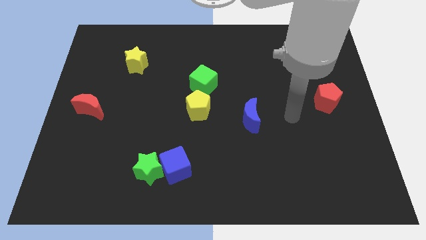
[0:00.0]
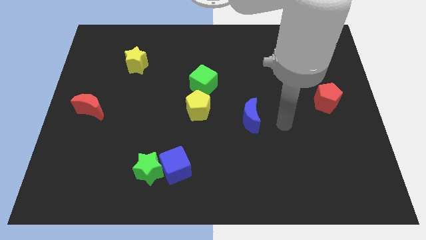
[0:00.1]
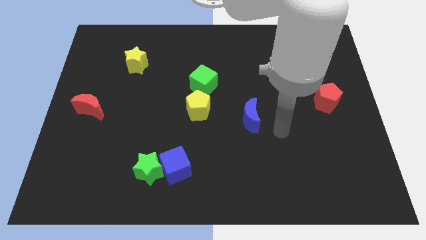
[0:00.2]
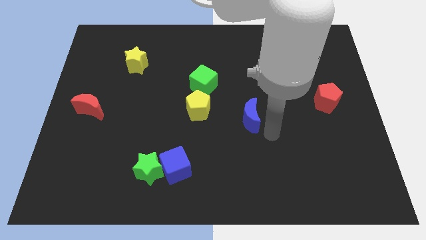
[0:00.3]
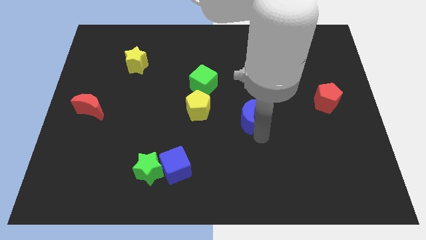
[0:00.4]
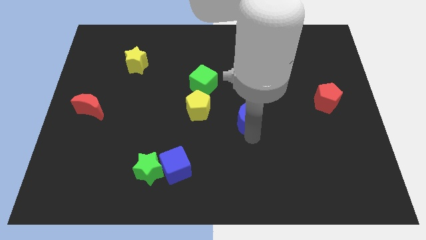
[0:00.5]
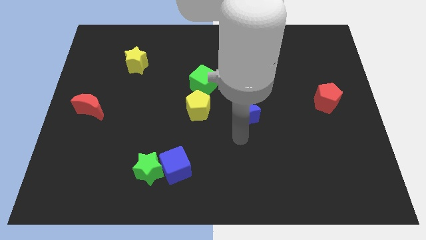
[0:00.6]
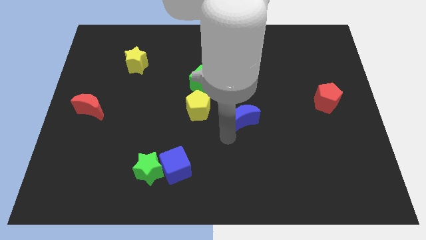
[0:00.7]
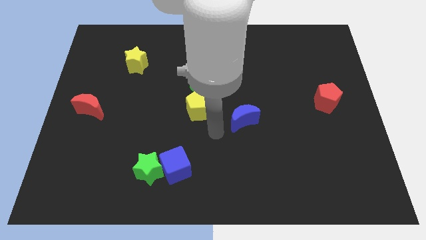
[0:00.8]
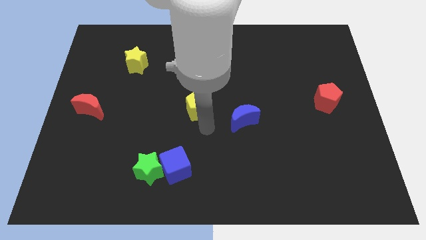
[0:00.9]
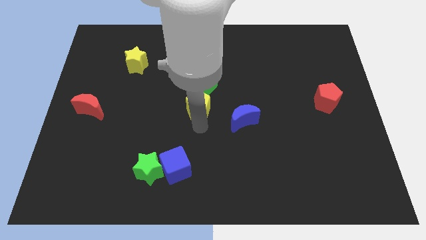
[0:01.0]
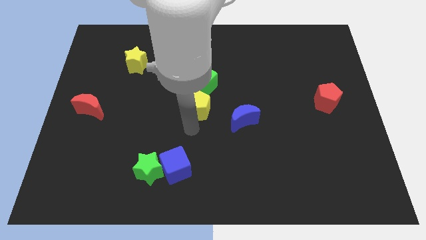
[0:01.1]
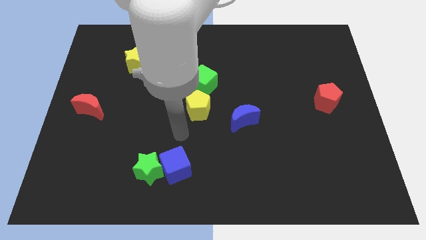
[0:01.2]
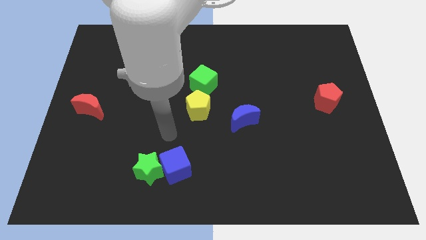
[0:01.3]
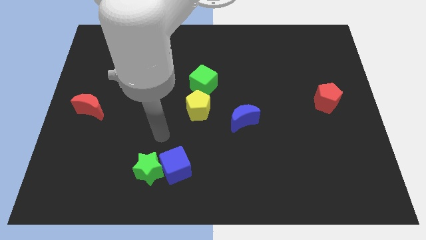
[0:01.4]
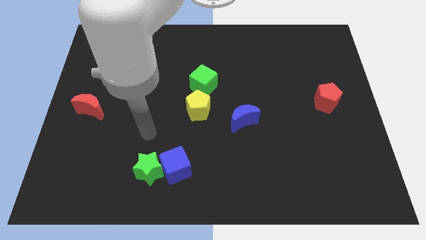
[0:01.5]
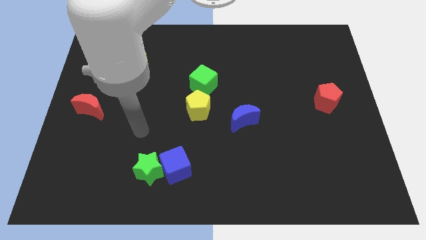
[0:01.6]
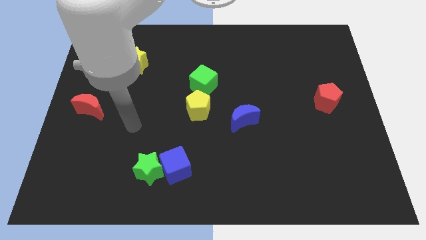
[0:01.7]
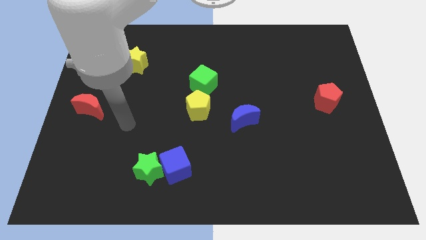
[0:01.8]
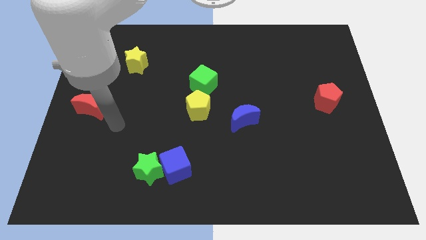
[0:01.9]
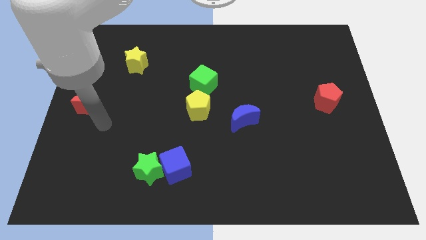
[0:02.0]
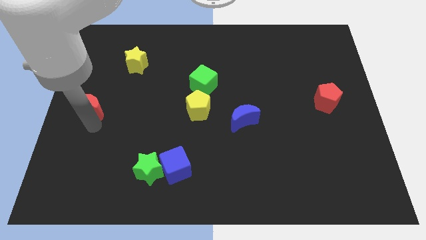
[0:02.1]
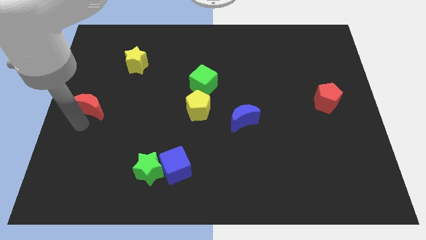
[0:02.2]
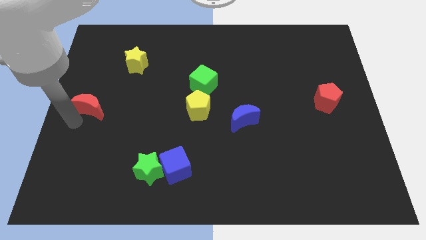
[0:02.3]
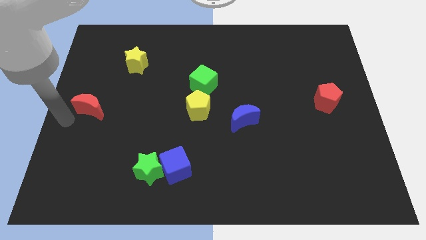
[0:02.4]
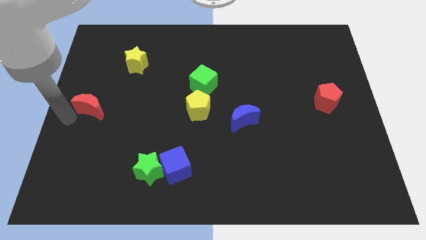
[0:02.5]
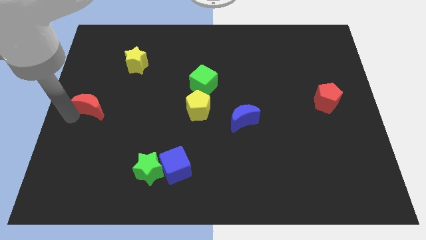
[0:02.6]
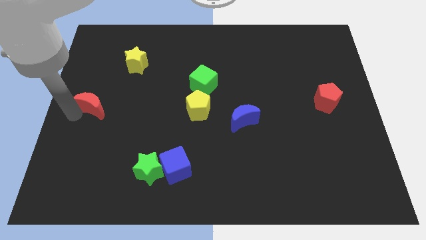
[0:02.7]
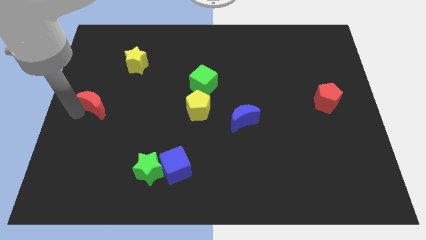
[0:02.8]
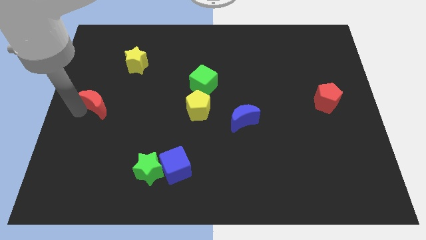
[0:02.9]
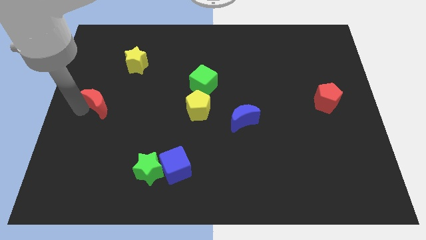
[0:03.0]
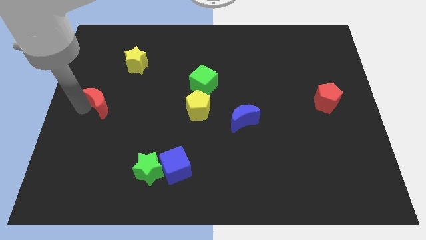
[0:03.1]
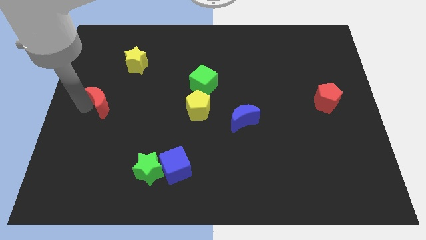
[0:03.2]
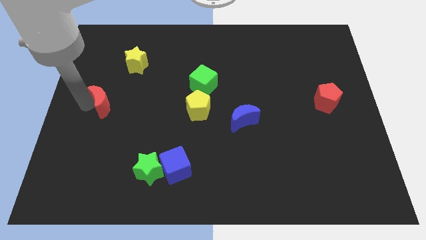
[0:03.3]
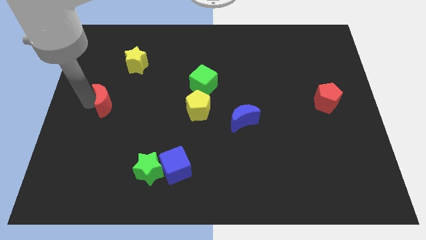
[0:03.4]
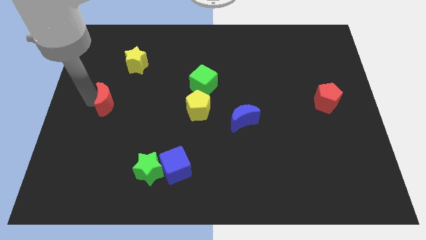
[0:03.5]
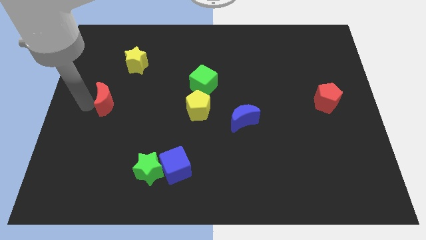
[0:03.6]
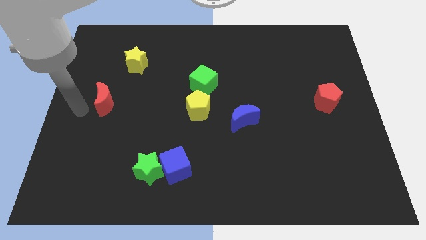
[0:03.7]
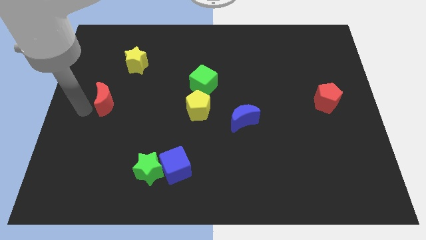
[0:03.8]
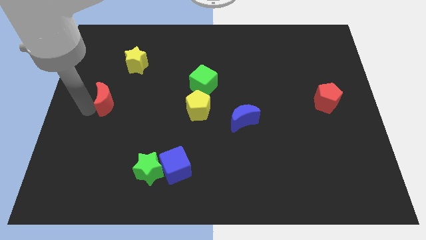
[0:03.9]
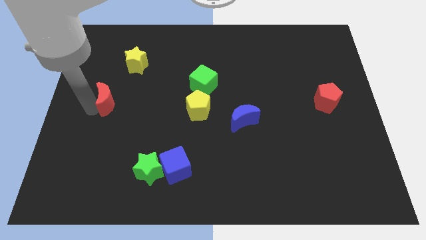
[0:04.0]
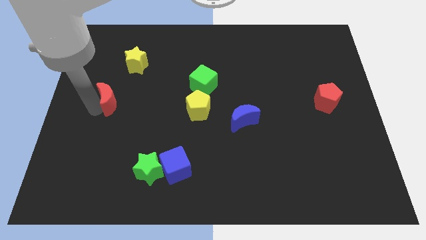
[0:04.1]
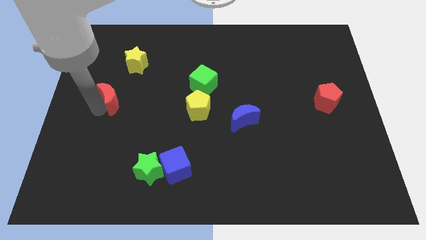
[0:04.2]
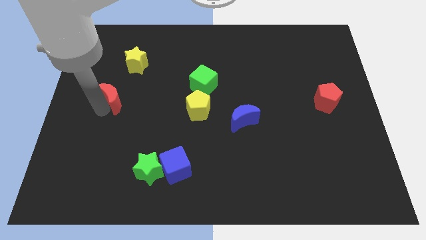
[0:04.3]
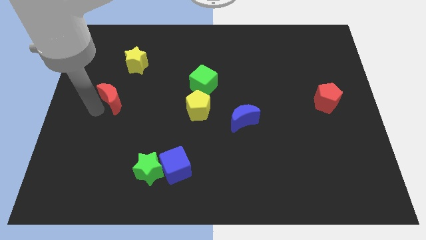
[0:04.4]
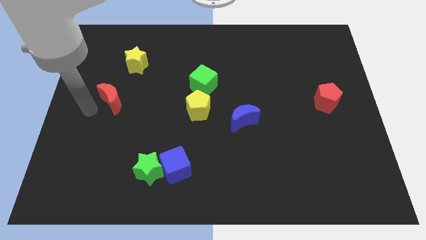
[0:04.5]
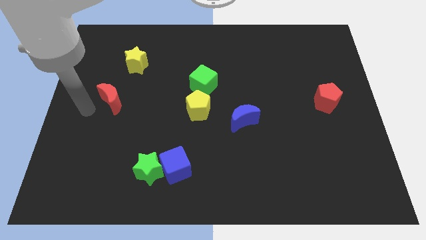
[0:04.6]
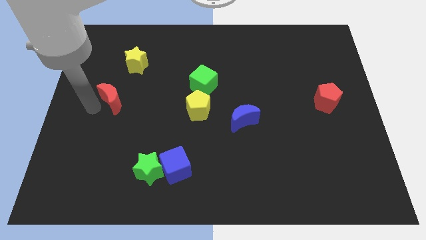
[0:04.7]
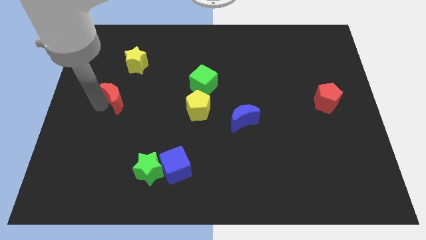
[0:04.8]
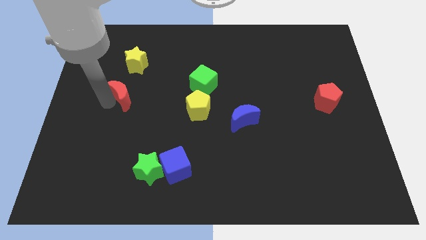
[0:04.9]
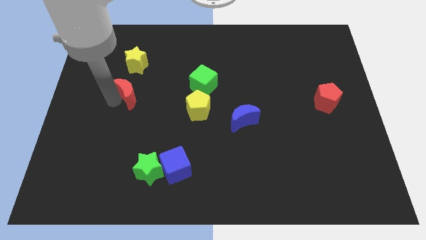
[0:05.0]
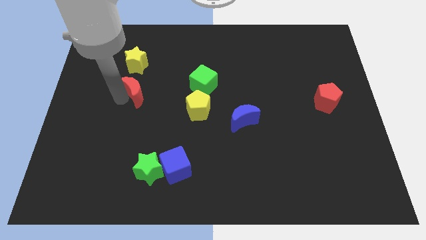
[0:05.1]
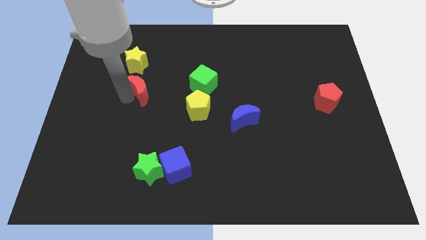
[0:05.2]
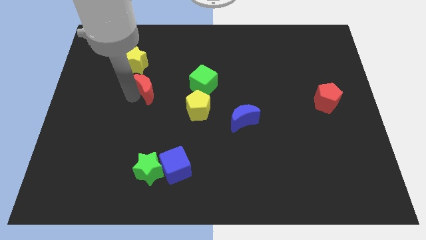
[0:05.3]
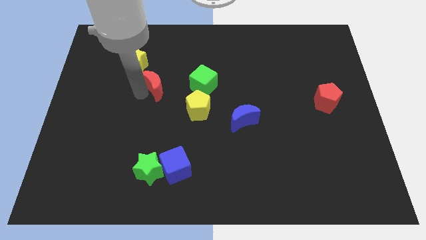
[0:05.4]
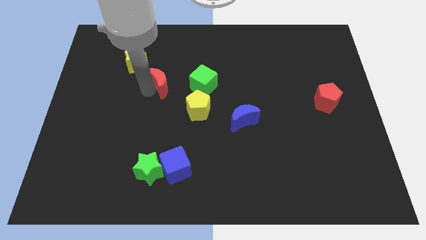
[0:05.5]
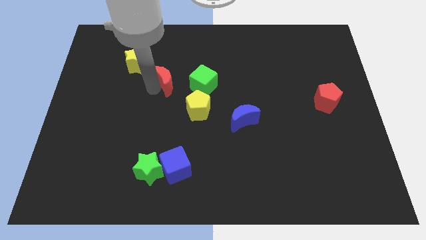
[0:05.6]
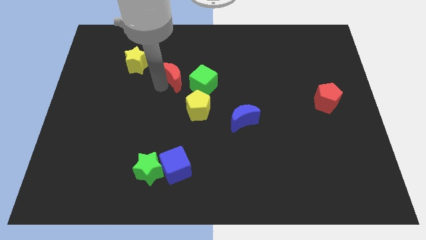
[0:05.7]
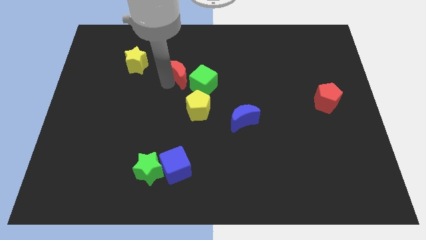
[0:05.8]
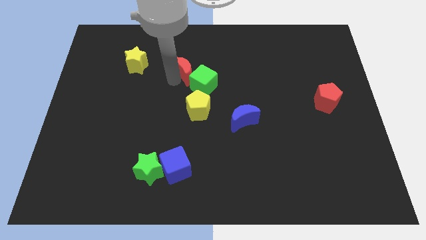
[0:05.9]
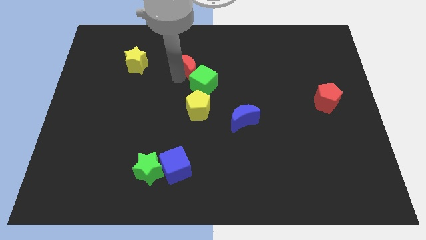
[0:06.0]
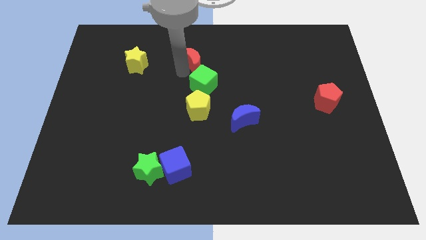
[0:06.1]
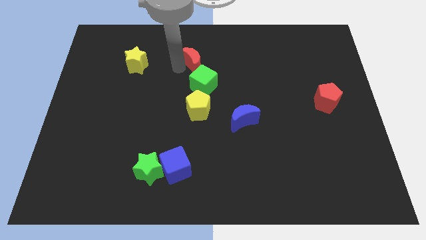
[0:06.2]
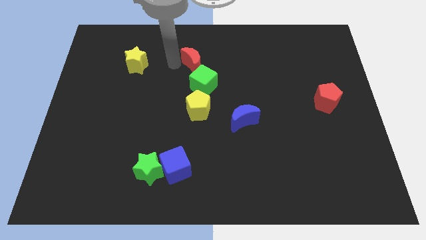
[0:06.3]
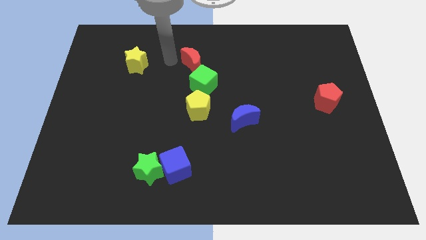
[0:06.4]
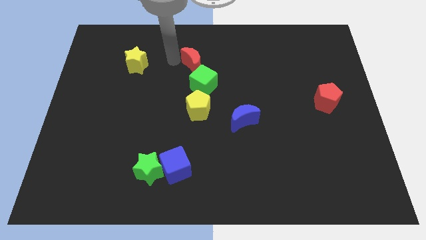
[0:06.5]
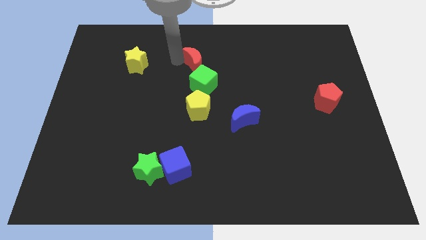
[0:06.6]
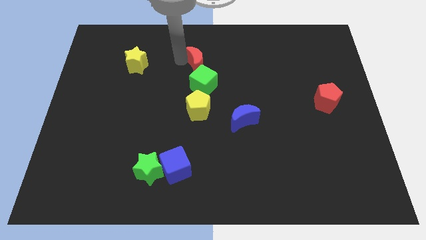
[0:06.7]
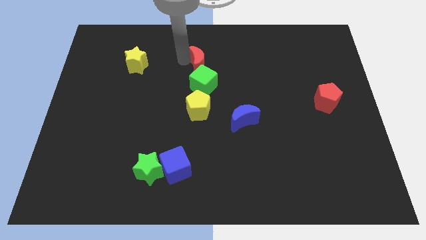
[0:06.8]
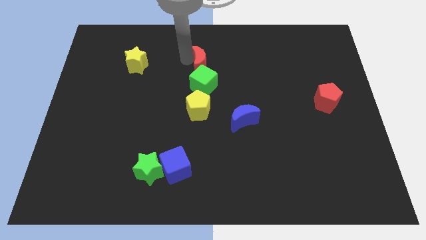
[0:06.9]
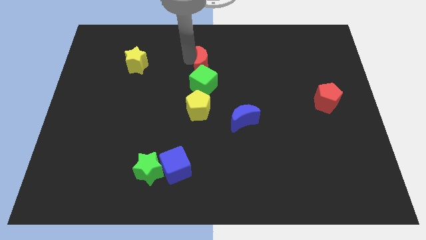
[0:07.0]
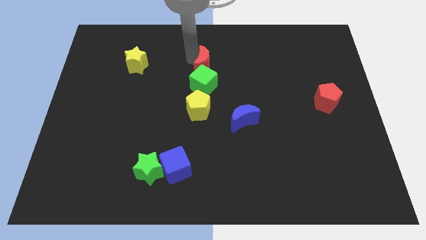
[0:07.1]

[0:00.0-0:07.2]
put the red moon to the top right side of the green cube

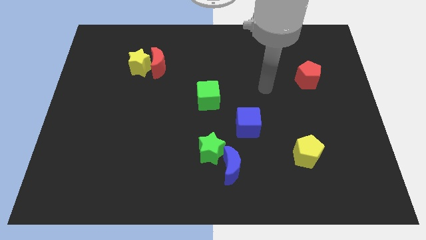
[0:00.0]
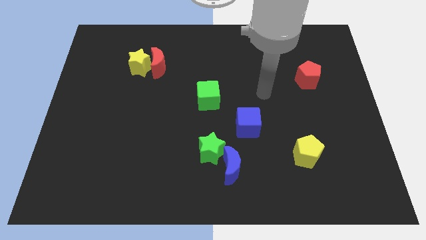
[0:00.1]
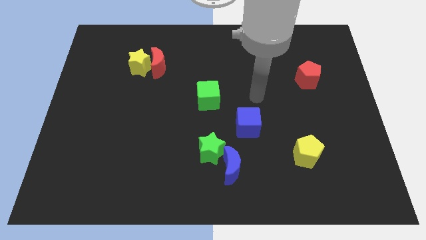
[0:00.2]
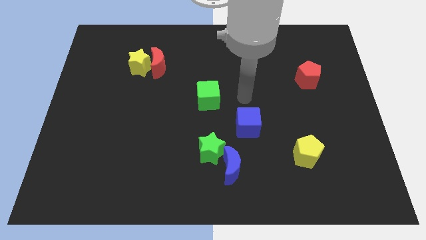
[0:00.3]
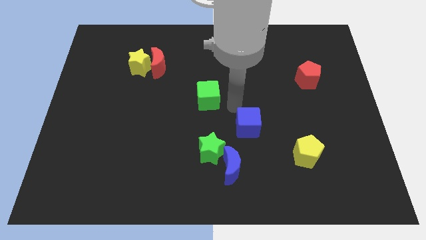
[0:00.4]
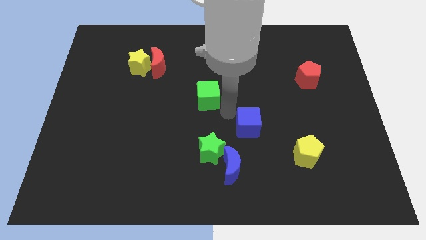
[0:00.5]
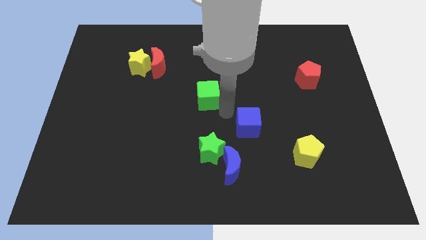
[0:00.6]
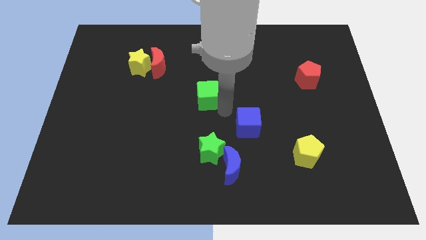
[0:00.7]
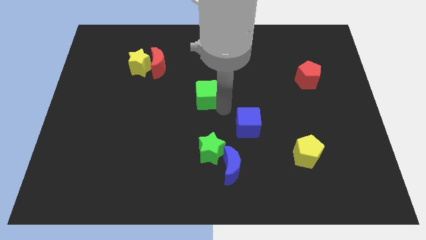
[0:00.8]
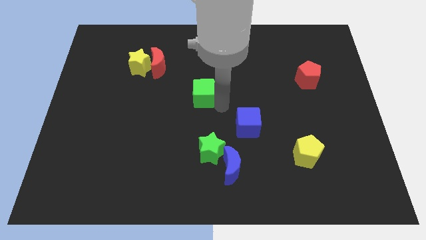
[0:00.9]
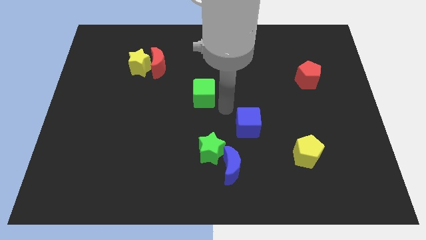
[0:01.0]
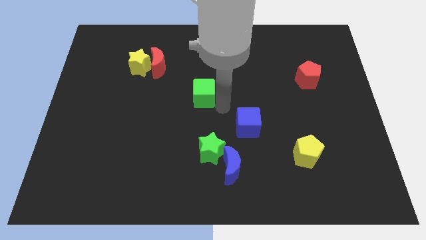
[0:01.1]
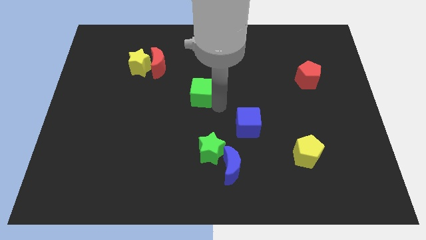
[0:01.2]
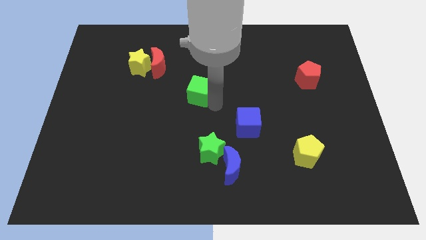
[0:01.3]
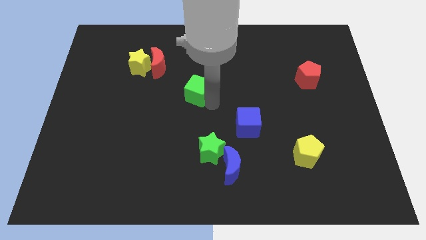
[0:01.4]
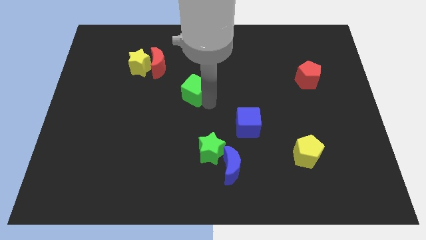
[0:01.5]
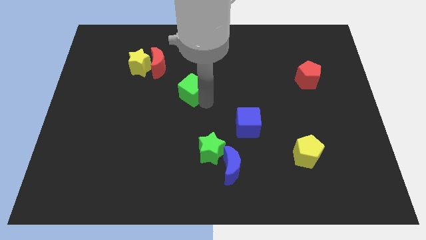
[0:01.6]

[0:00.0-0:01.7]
put the green cube diagonally down and to the right of the red moon
